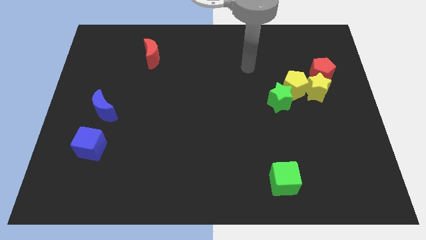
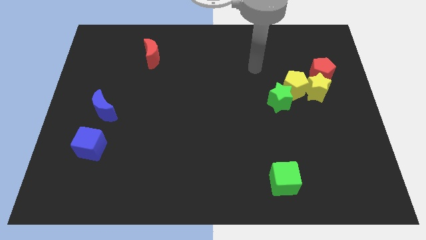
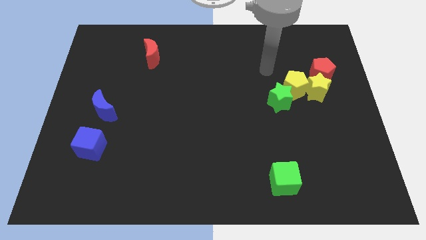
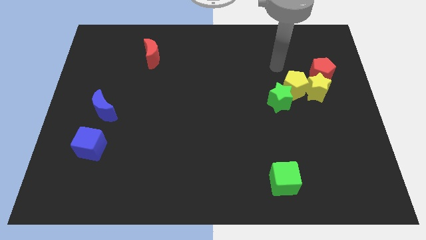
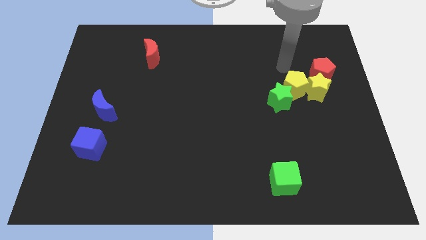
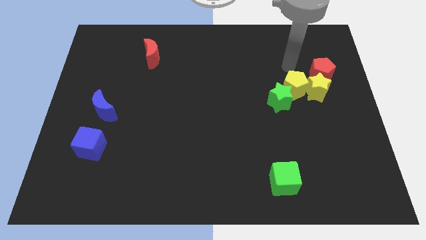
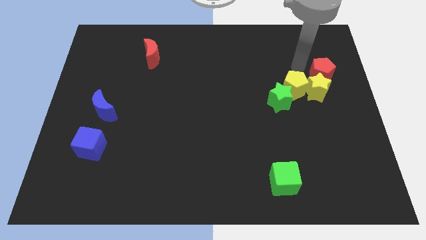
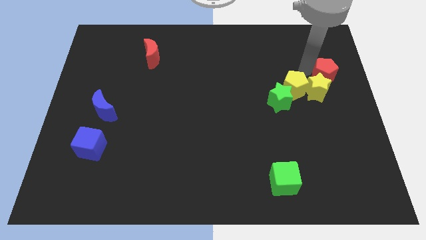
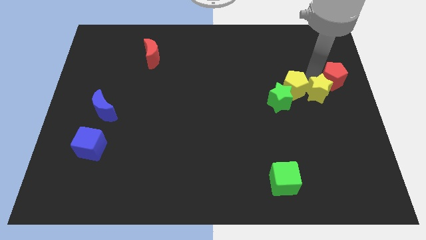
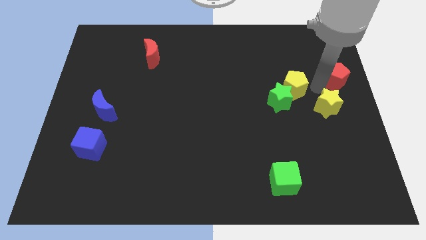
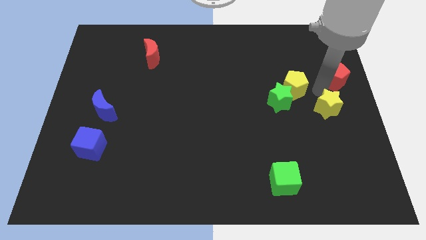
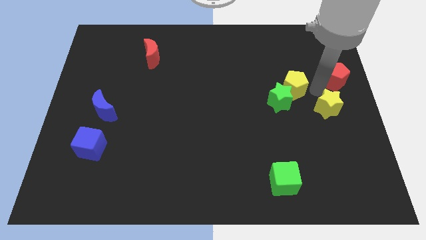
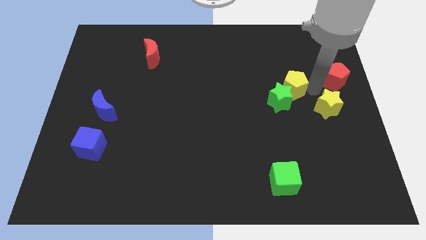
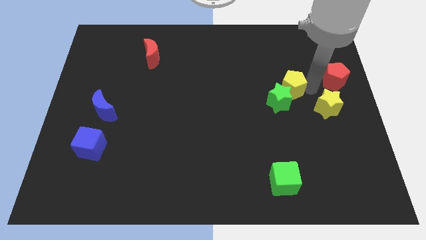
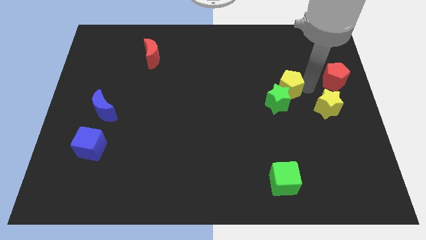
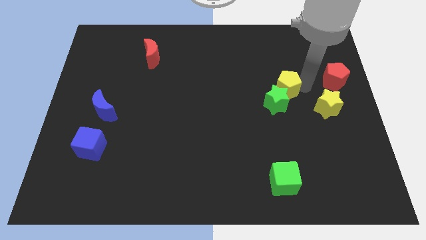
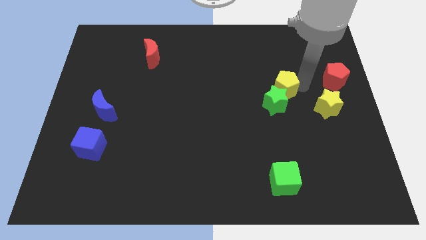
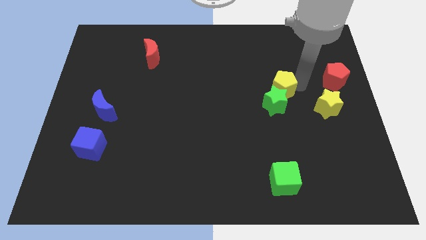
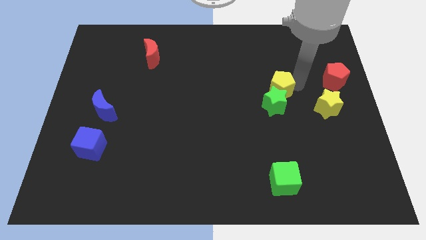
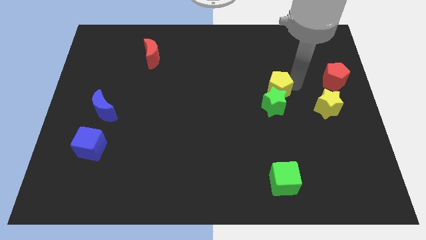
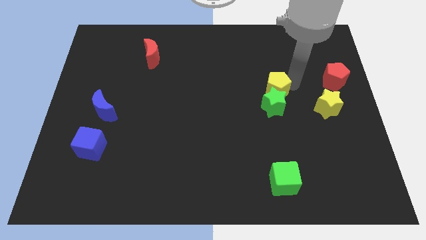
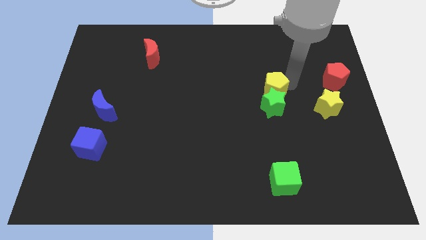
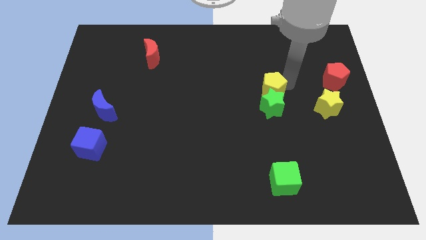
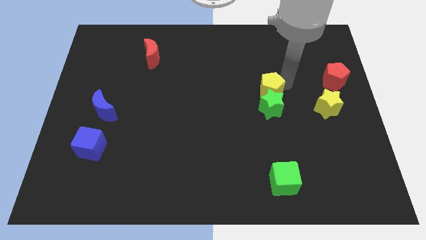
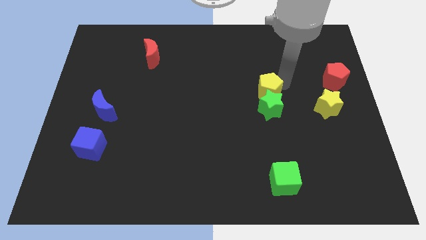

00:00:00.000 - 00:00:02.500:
separate the yellow pentagon from the group of blocks

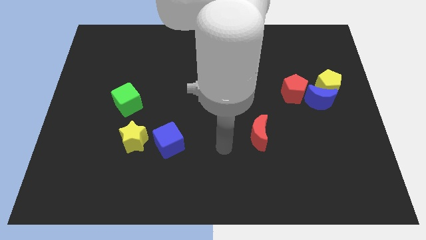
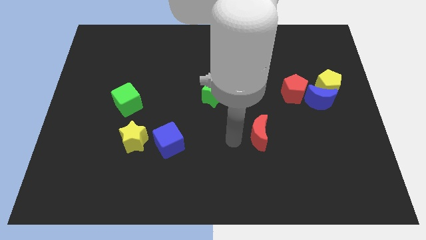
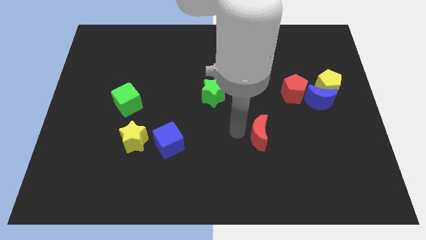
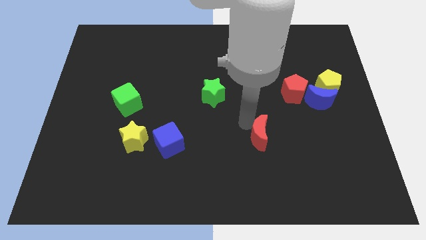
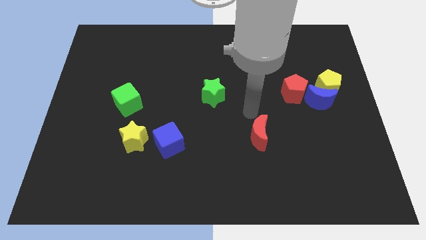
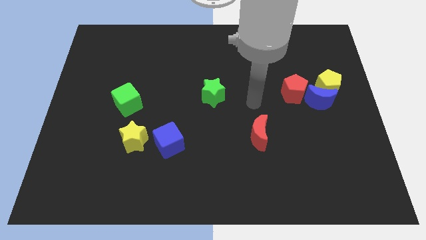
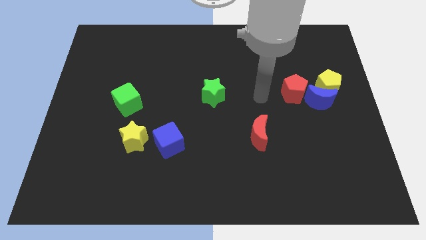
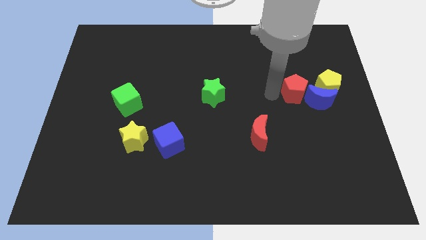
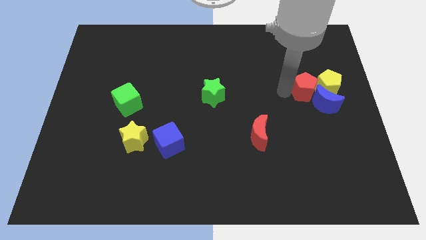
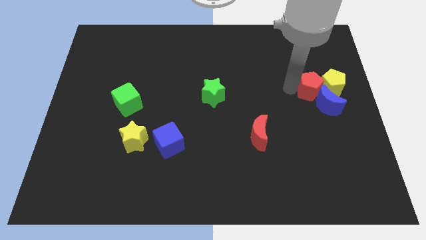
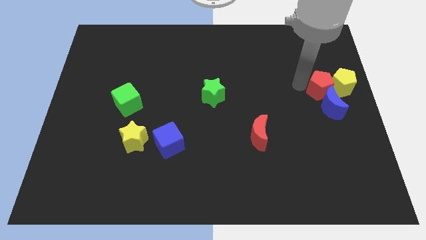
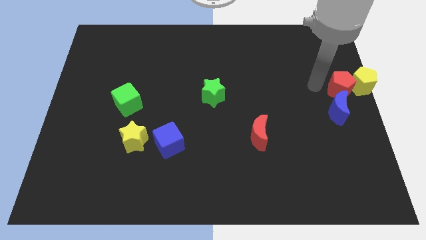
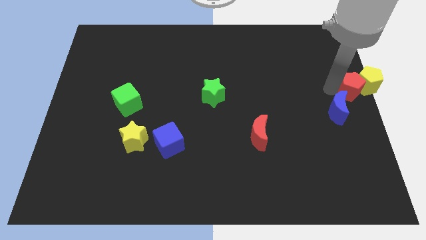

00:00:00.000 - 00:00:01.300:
move the blue moon away from the yellow pentagon and red pentagon

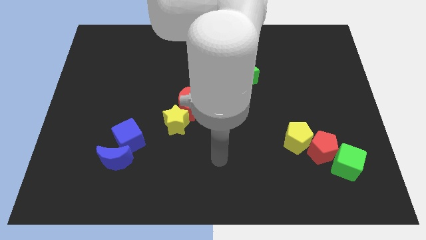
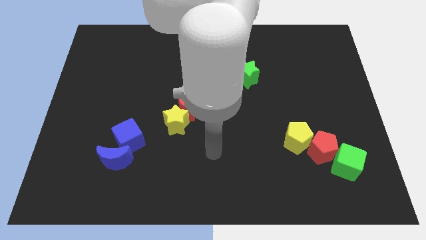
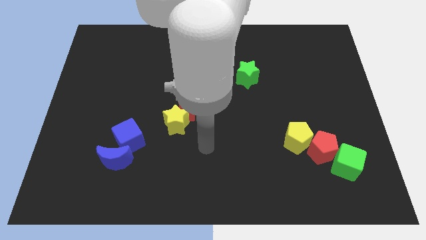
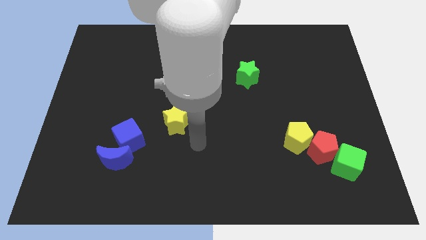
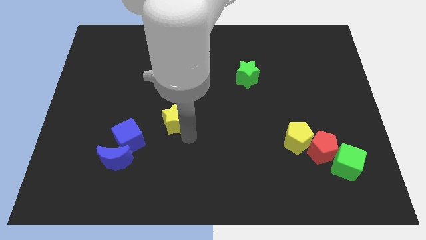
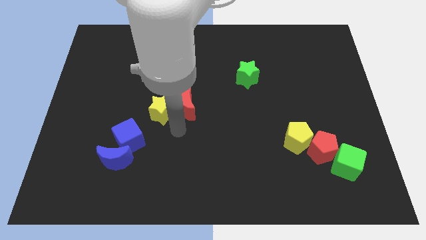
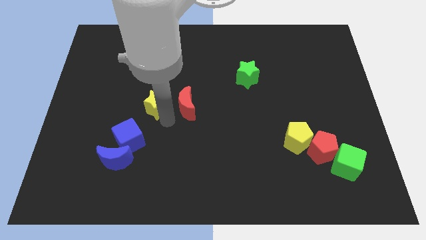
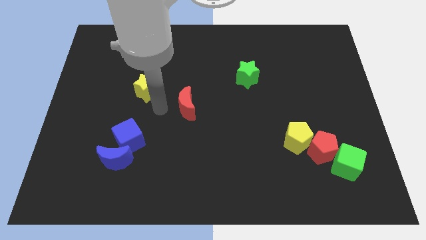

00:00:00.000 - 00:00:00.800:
pull the red moon apart from the yellow star

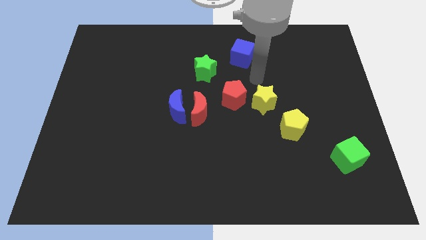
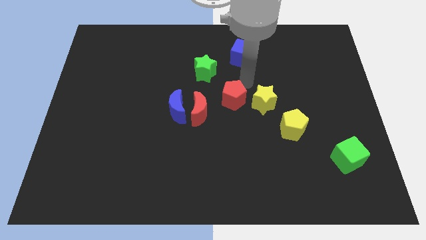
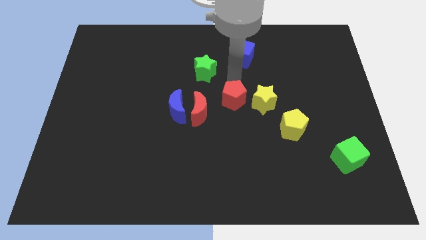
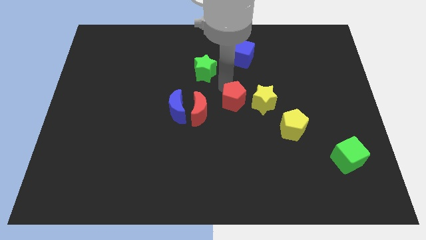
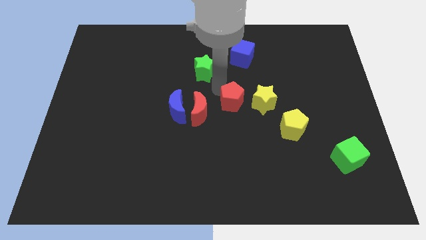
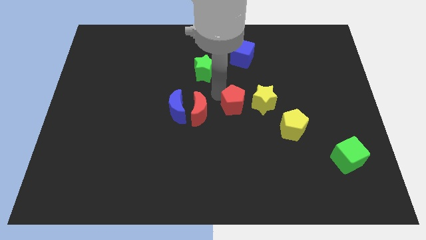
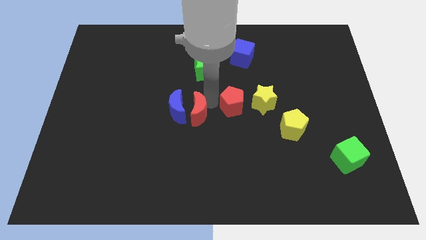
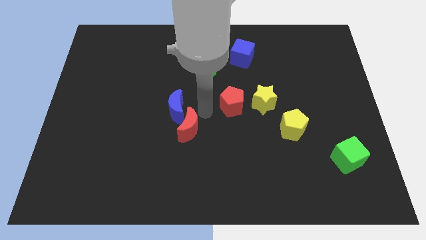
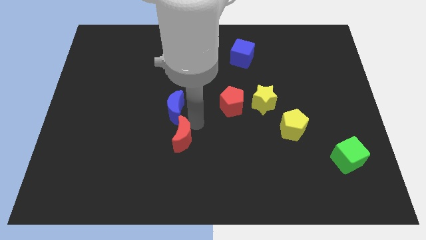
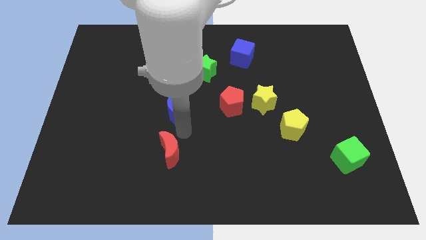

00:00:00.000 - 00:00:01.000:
pull the blue moon apart from the red moon

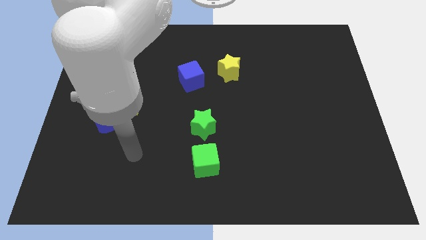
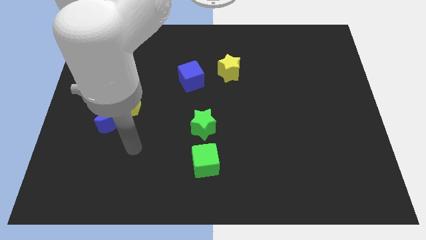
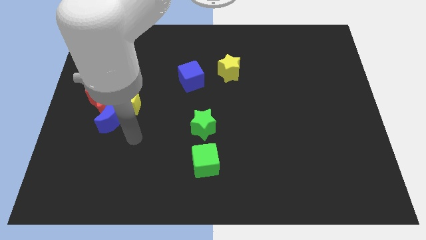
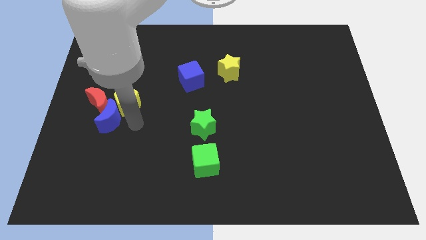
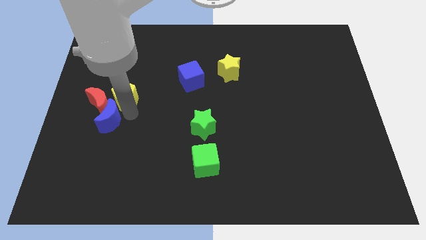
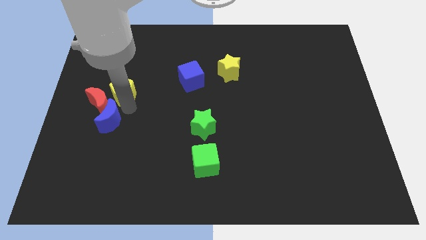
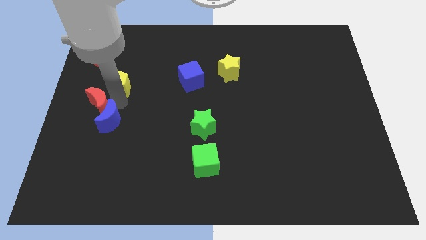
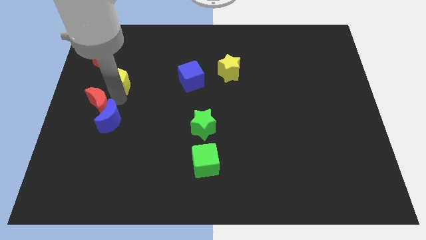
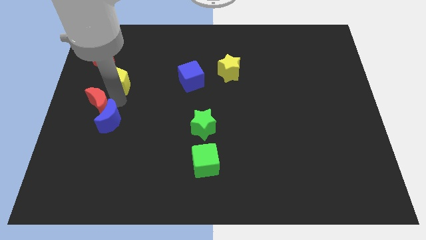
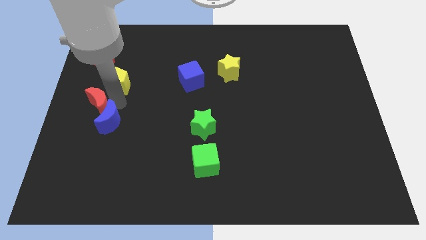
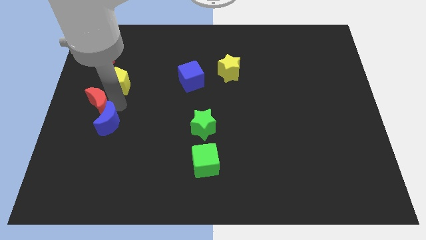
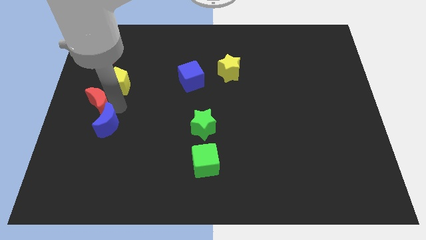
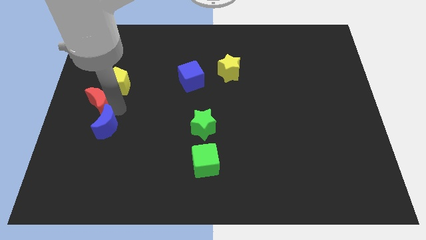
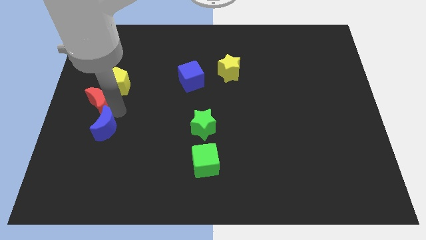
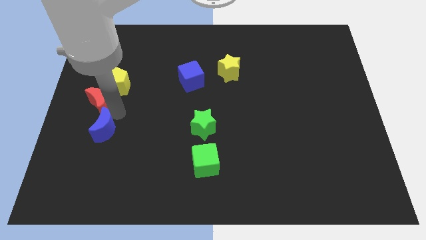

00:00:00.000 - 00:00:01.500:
move the blue moon away from the yellow pentagon and red moon

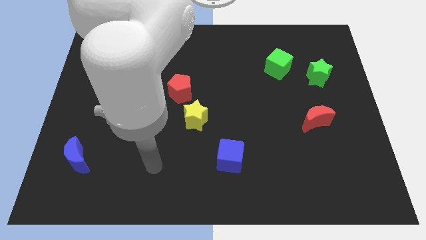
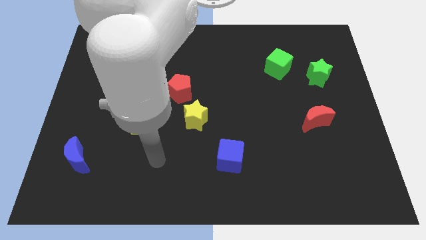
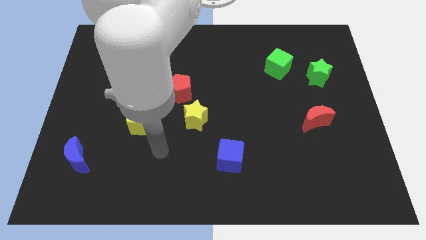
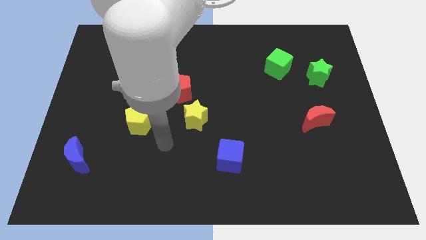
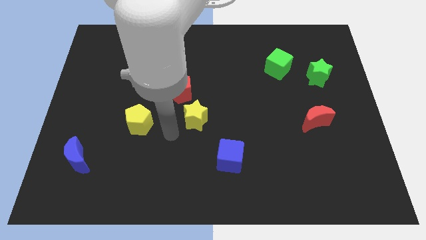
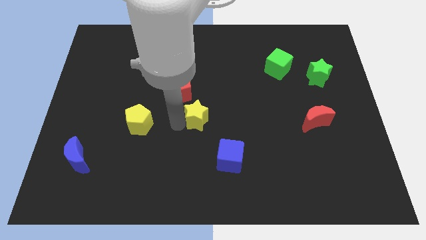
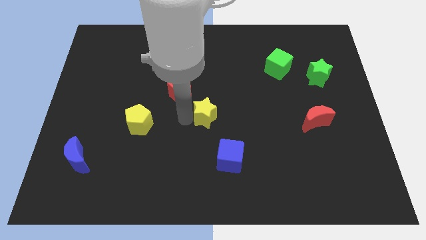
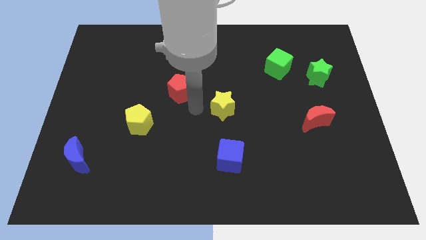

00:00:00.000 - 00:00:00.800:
separate the red pentagon from the yellow star

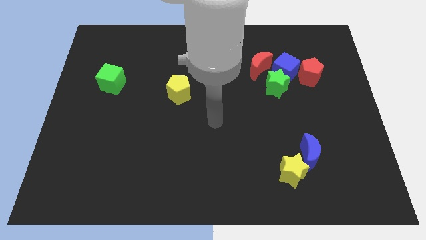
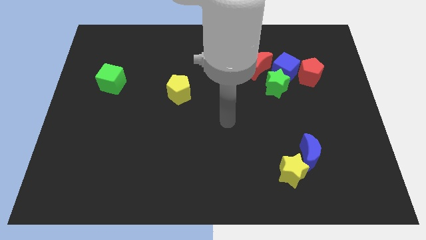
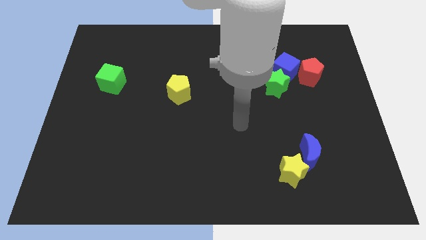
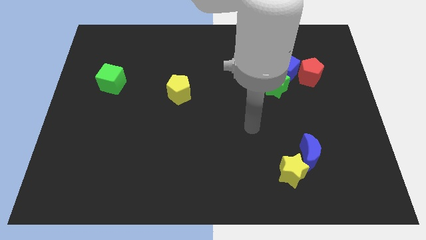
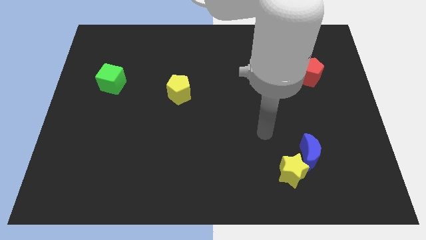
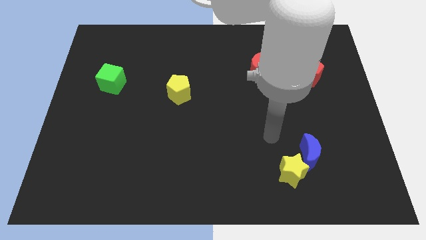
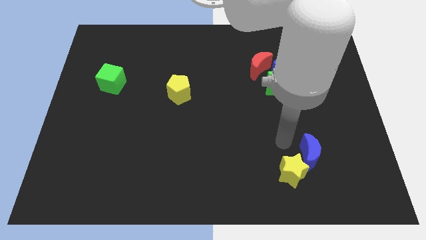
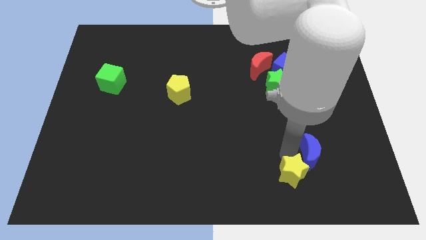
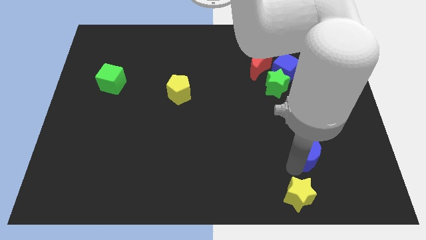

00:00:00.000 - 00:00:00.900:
separate the blue moon from the yellow star

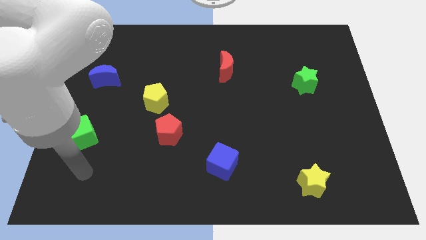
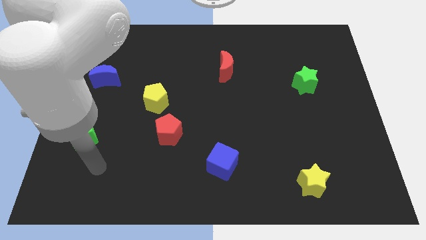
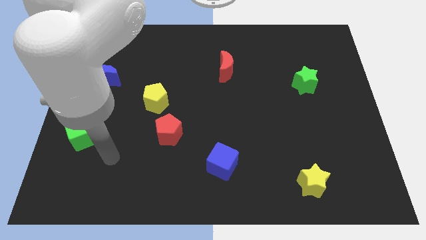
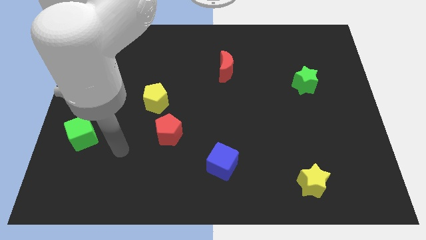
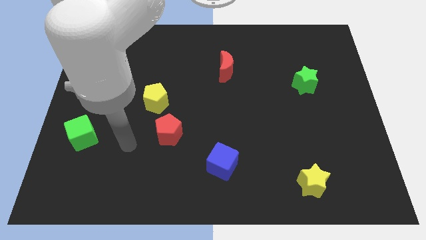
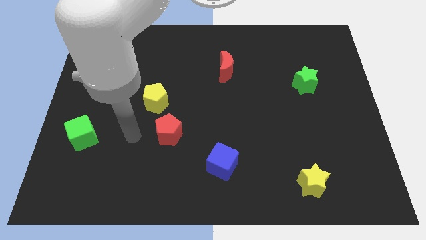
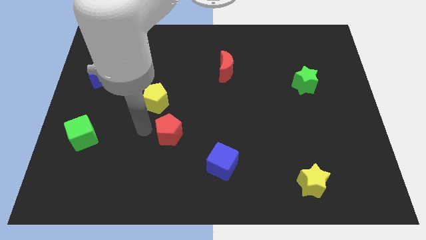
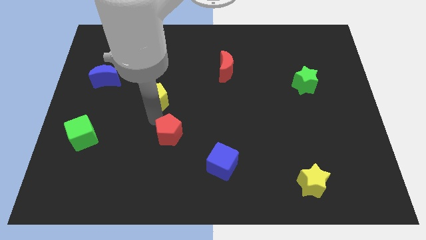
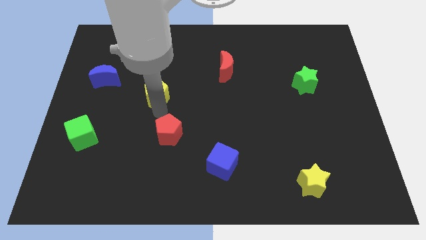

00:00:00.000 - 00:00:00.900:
move the red pentagon away from the yellow pentagon
